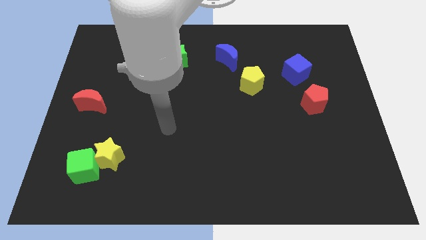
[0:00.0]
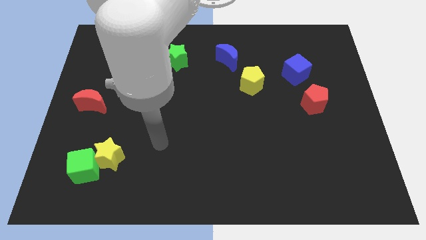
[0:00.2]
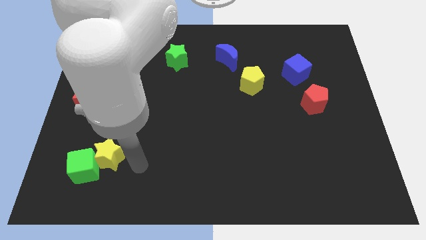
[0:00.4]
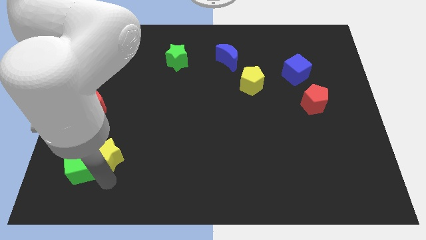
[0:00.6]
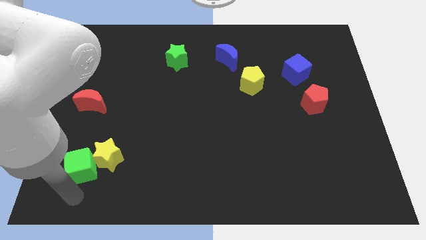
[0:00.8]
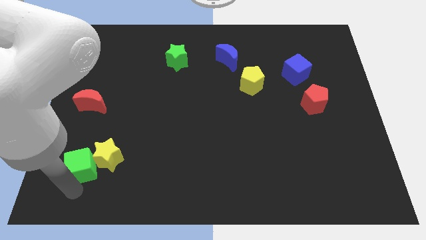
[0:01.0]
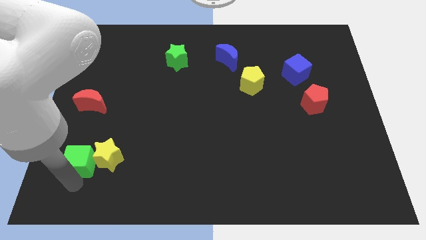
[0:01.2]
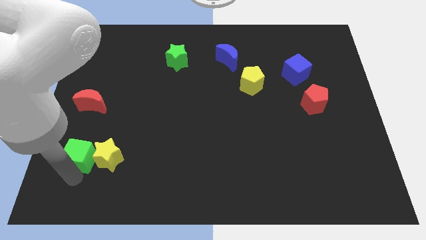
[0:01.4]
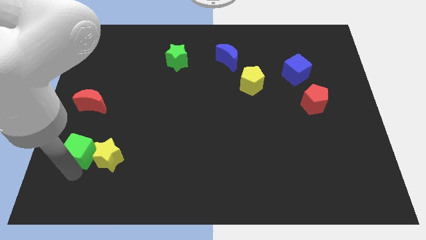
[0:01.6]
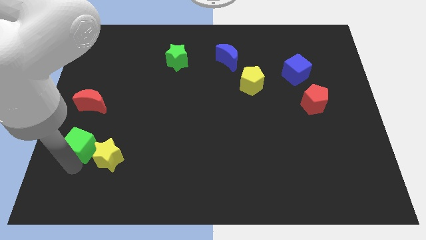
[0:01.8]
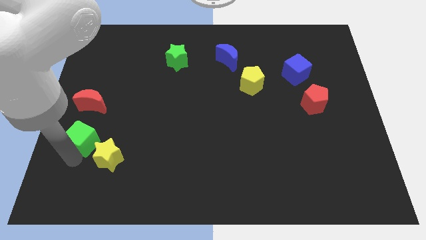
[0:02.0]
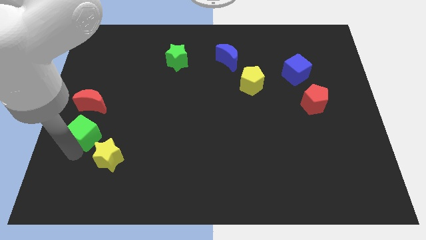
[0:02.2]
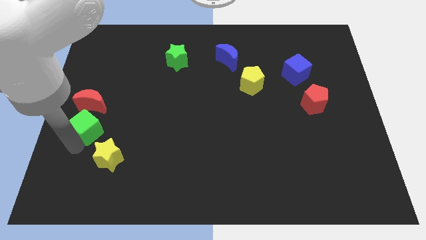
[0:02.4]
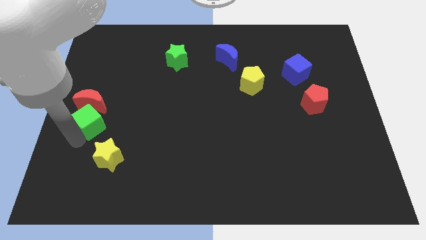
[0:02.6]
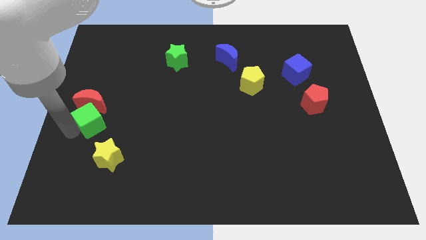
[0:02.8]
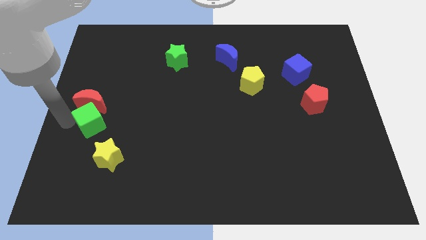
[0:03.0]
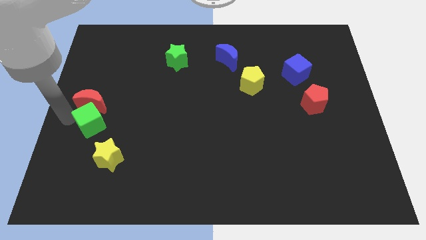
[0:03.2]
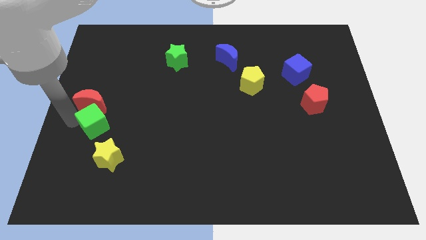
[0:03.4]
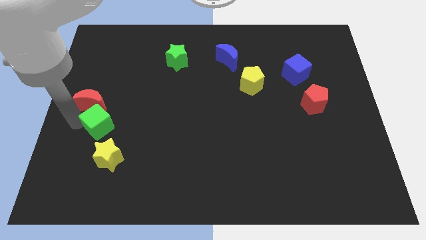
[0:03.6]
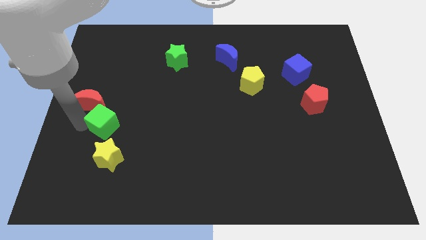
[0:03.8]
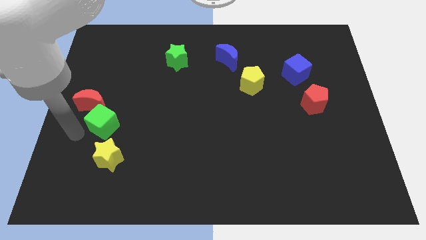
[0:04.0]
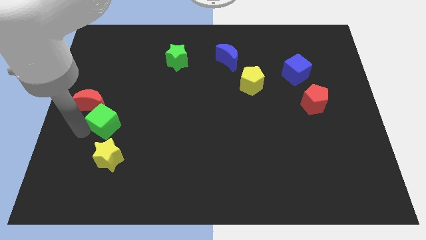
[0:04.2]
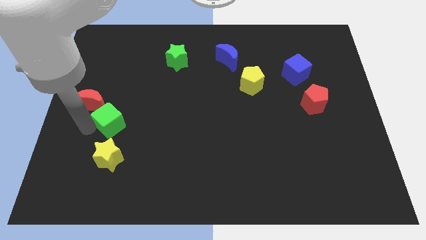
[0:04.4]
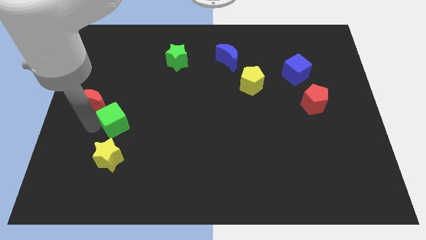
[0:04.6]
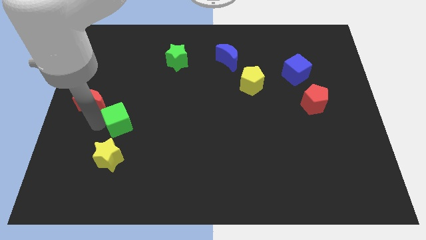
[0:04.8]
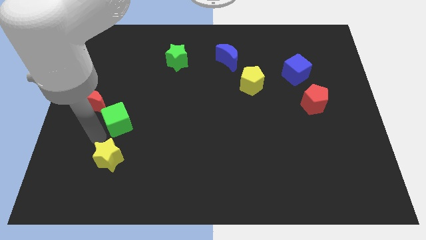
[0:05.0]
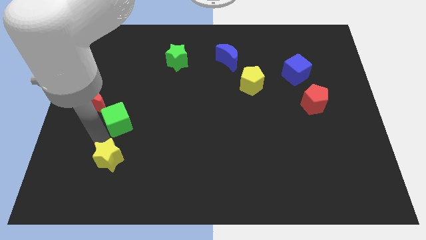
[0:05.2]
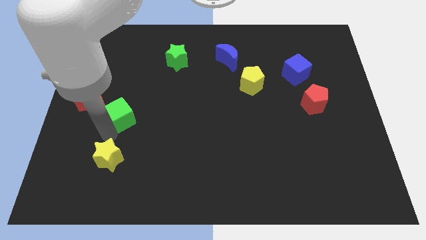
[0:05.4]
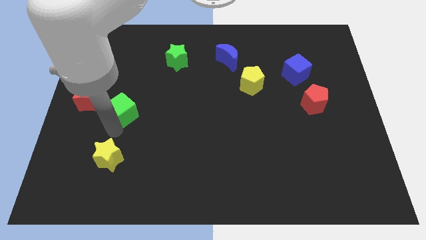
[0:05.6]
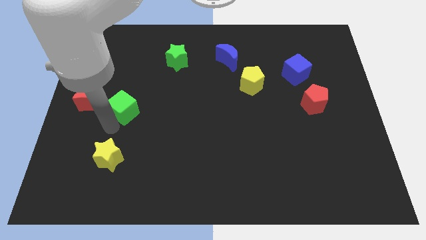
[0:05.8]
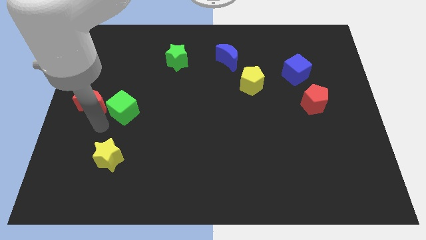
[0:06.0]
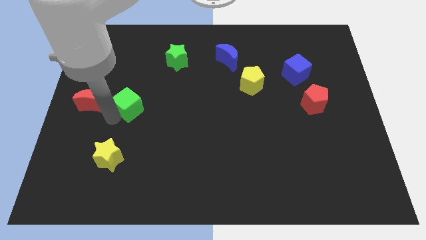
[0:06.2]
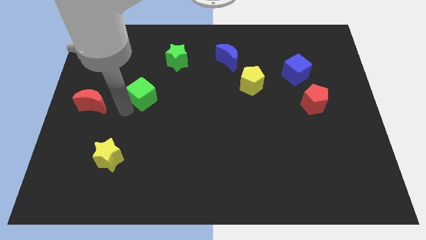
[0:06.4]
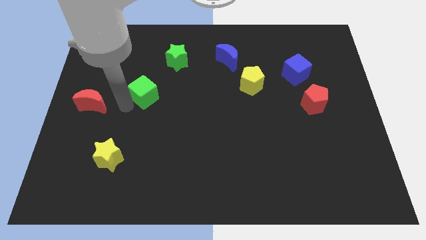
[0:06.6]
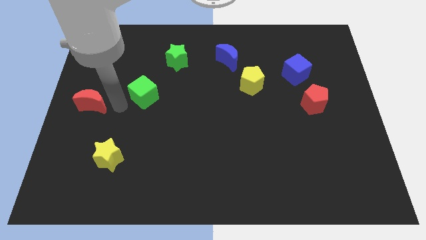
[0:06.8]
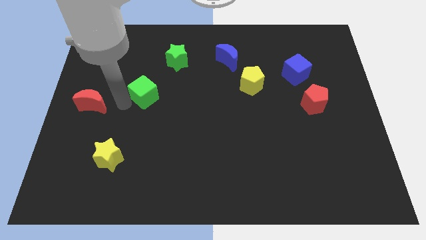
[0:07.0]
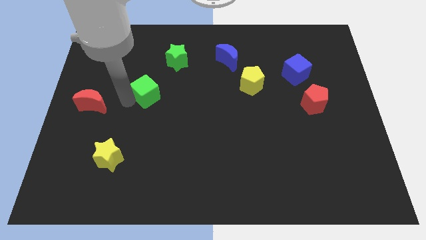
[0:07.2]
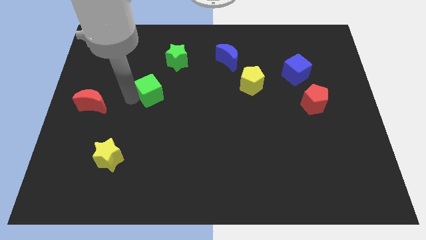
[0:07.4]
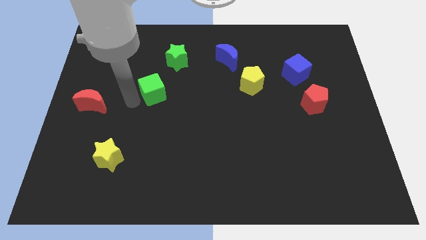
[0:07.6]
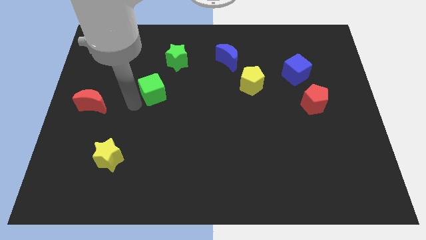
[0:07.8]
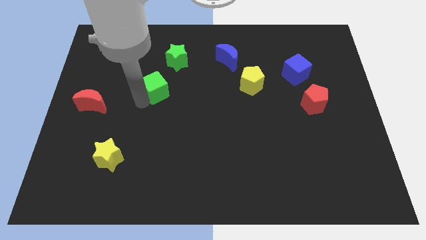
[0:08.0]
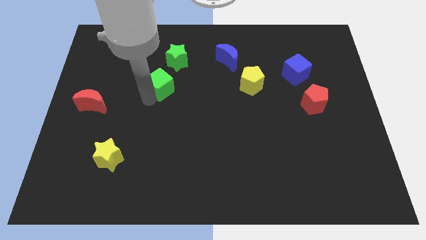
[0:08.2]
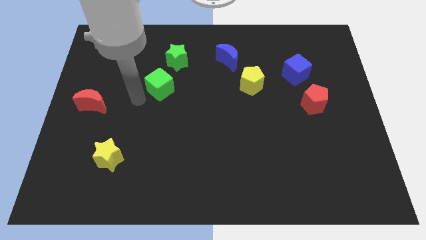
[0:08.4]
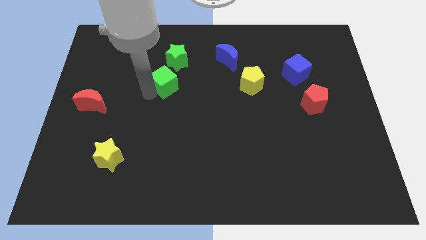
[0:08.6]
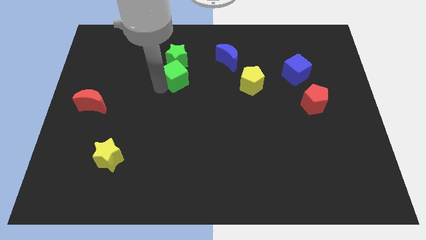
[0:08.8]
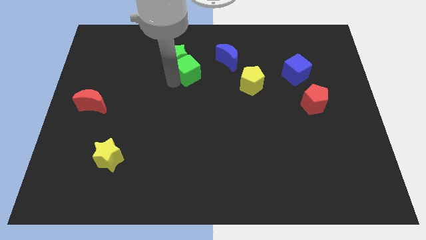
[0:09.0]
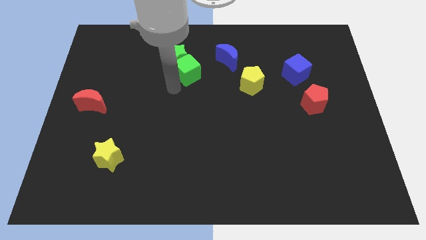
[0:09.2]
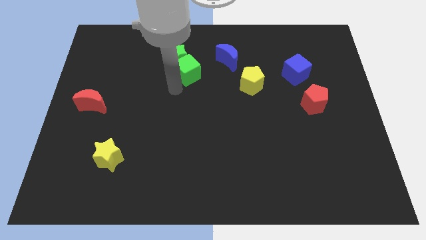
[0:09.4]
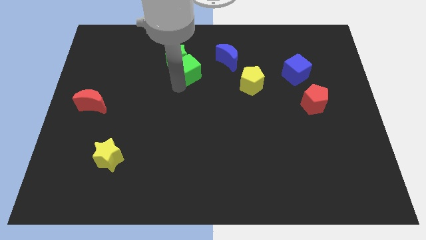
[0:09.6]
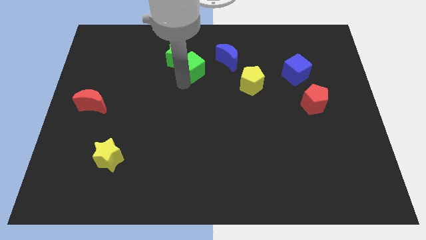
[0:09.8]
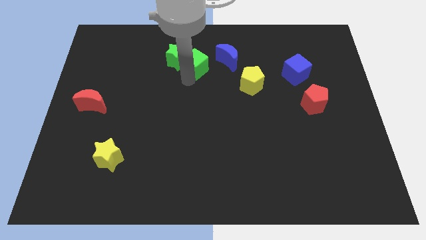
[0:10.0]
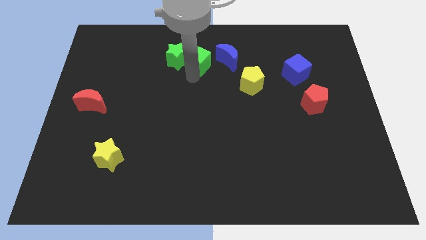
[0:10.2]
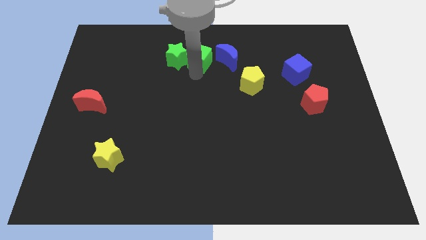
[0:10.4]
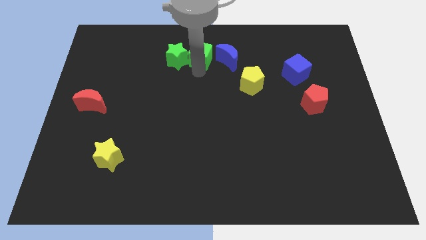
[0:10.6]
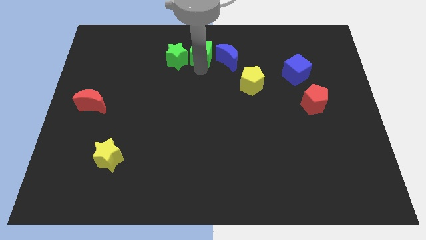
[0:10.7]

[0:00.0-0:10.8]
push the green cube to the top
